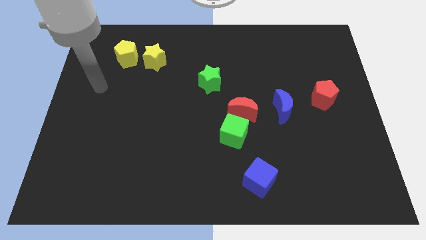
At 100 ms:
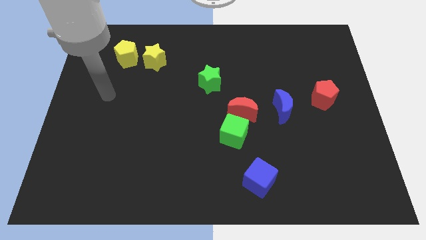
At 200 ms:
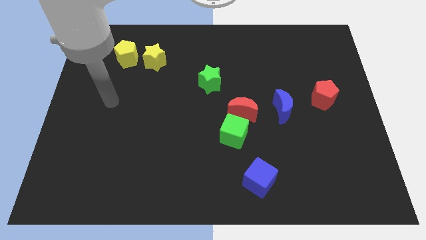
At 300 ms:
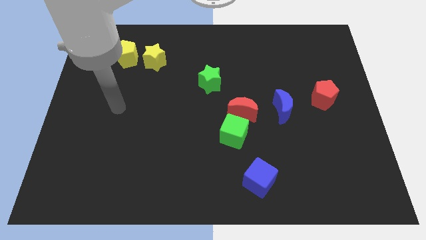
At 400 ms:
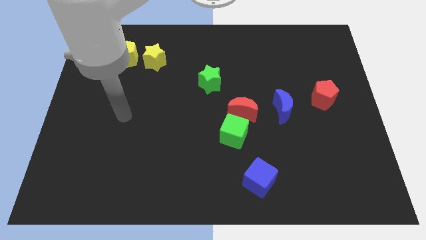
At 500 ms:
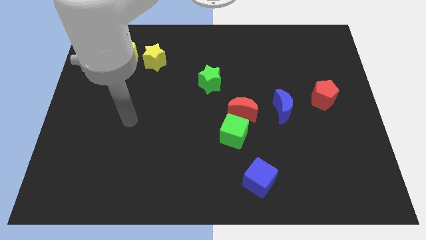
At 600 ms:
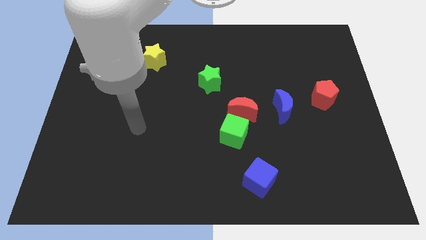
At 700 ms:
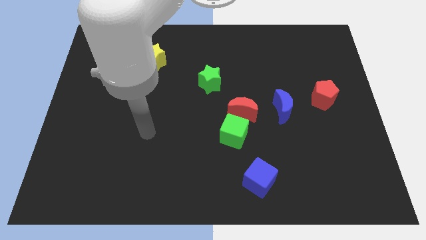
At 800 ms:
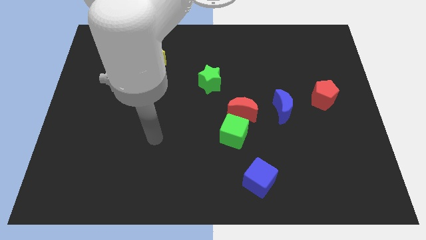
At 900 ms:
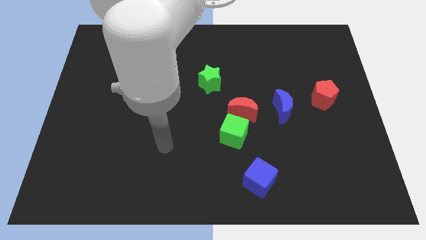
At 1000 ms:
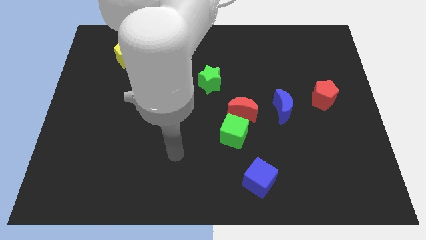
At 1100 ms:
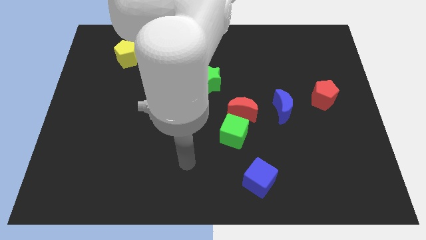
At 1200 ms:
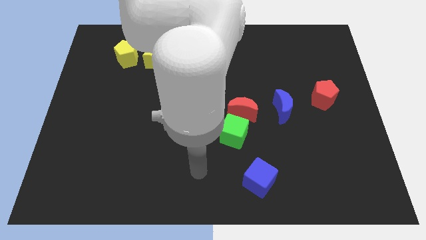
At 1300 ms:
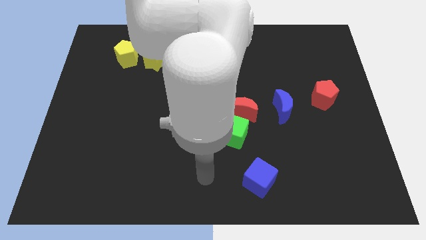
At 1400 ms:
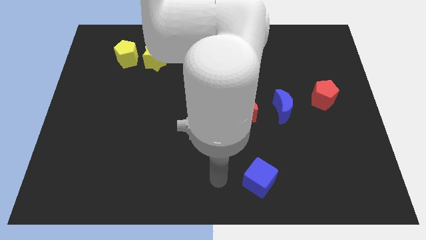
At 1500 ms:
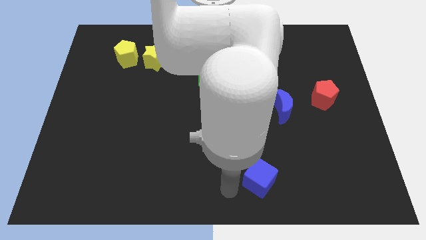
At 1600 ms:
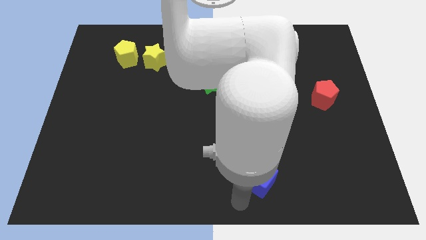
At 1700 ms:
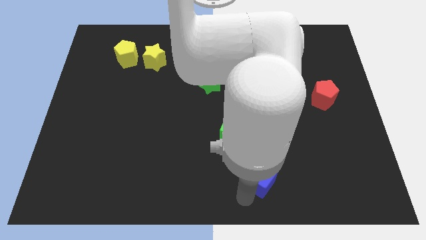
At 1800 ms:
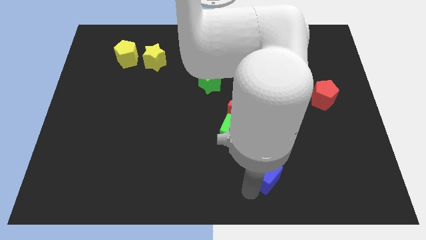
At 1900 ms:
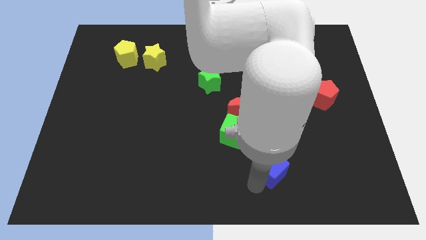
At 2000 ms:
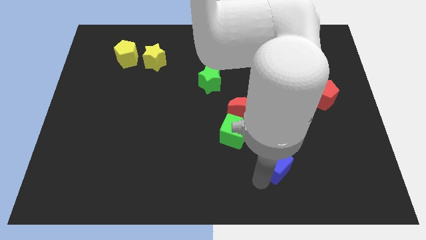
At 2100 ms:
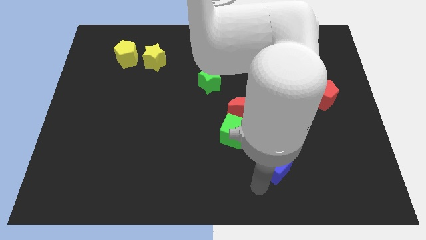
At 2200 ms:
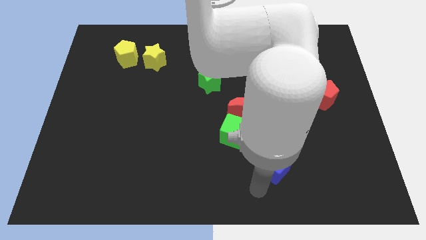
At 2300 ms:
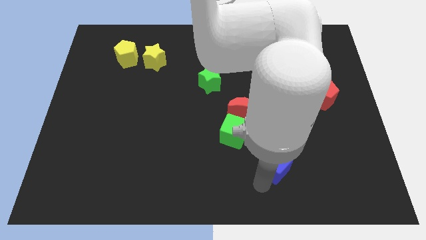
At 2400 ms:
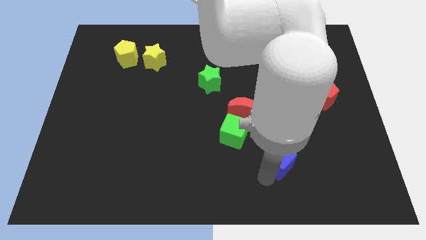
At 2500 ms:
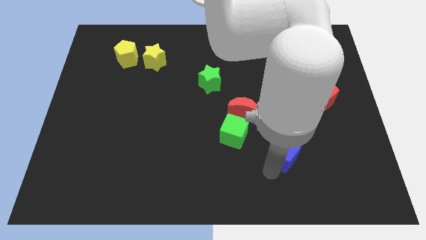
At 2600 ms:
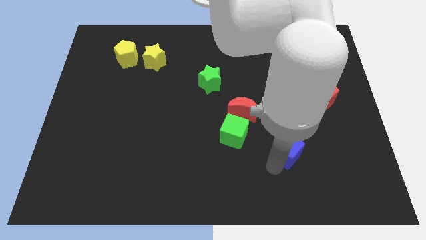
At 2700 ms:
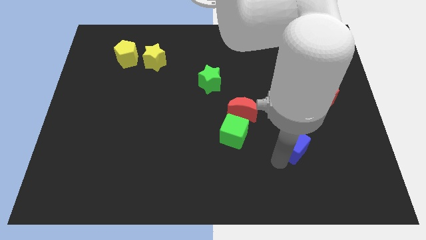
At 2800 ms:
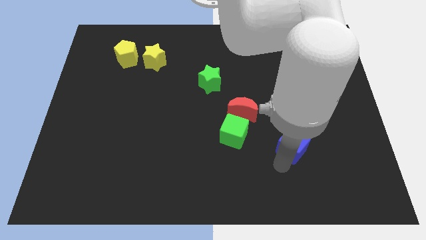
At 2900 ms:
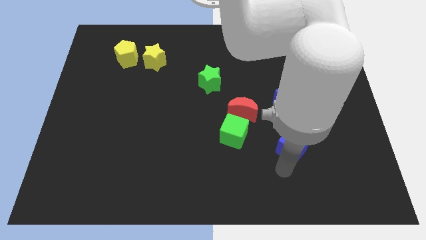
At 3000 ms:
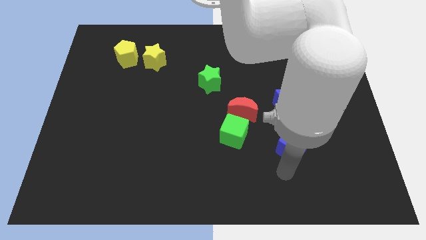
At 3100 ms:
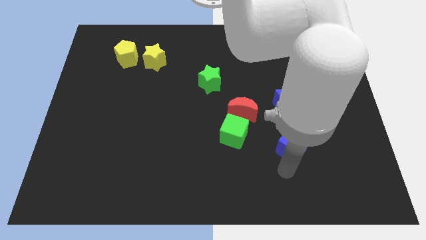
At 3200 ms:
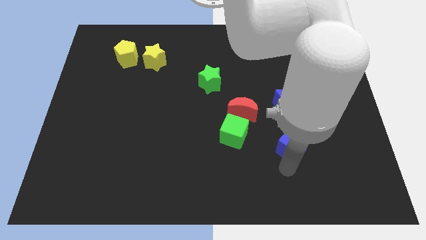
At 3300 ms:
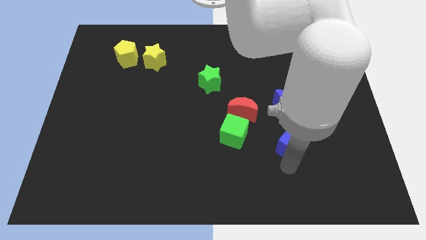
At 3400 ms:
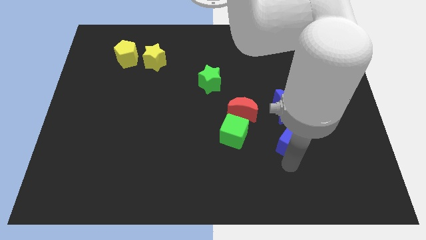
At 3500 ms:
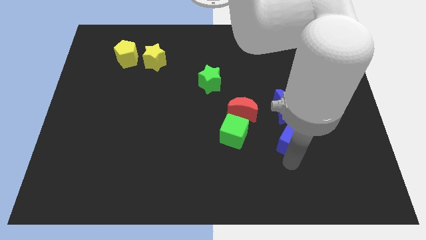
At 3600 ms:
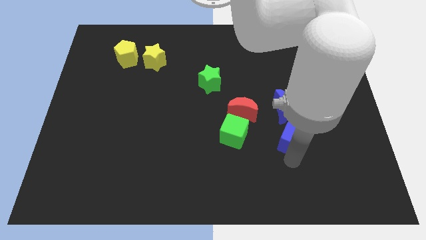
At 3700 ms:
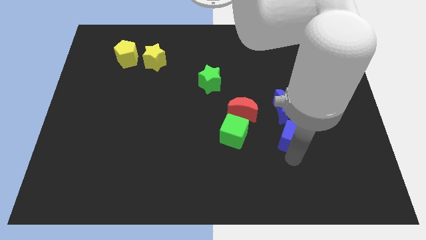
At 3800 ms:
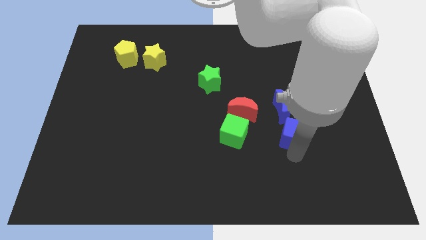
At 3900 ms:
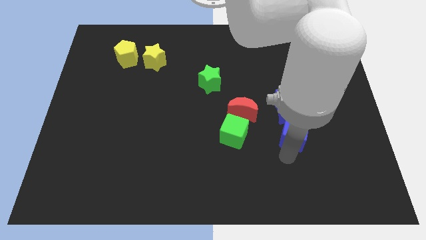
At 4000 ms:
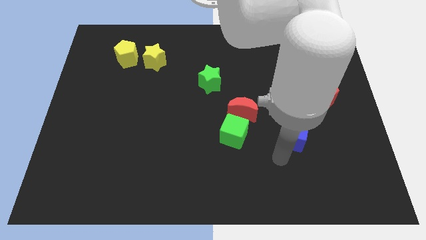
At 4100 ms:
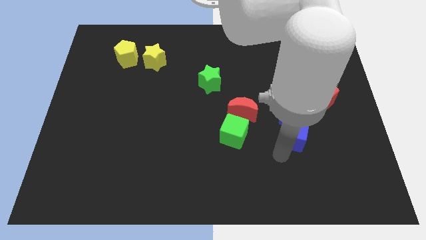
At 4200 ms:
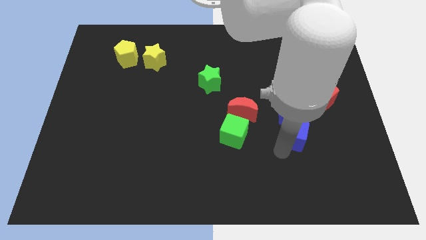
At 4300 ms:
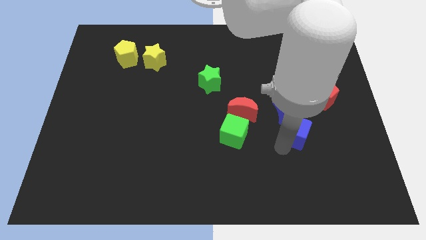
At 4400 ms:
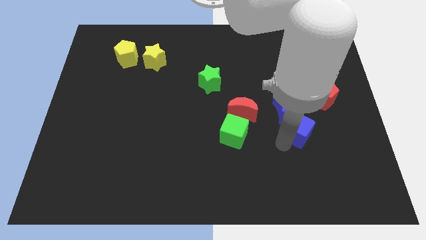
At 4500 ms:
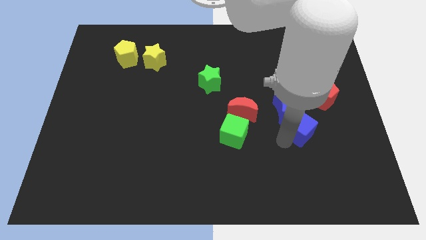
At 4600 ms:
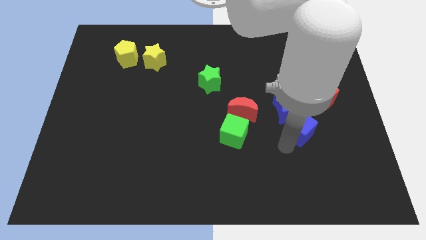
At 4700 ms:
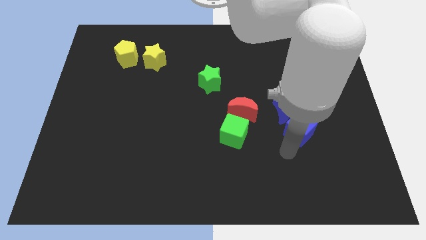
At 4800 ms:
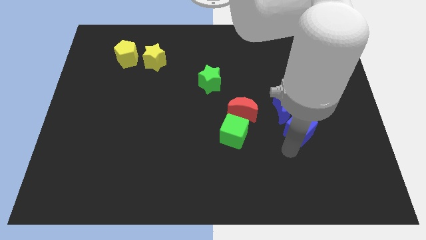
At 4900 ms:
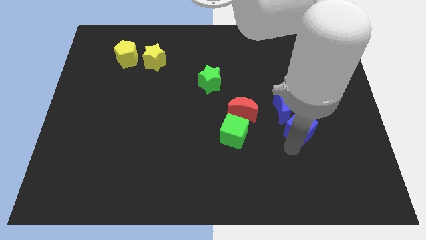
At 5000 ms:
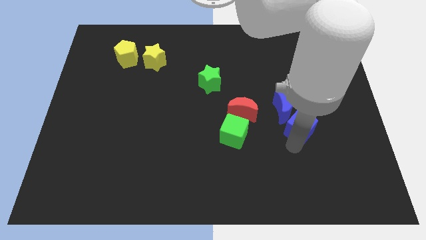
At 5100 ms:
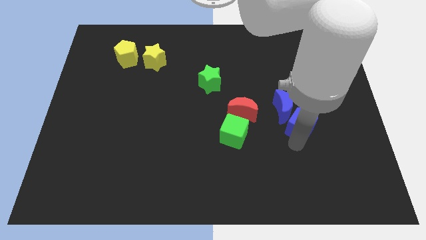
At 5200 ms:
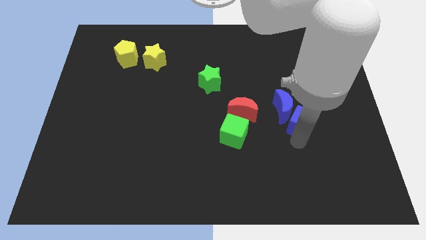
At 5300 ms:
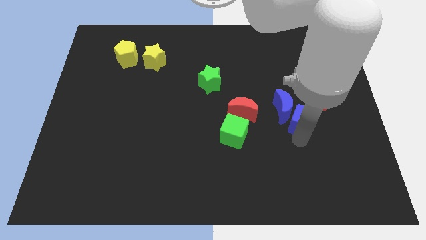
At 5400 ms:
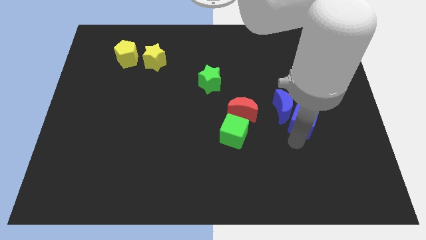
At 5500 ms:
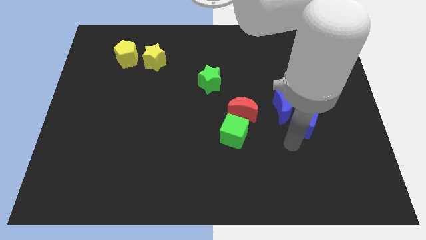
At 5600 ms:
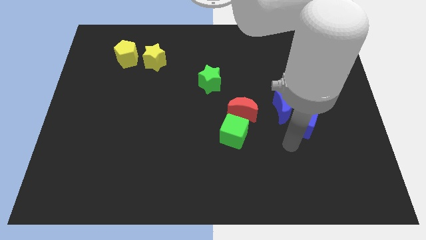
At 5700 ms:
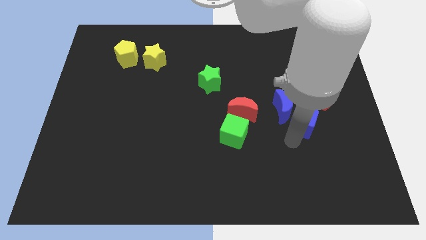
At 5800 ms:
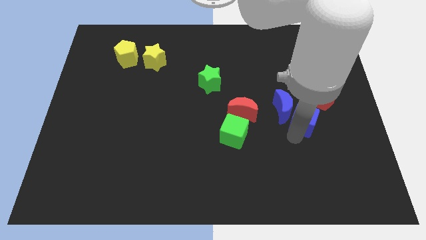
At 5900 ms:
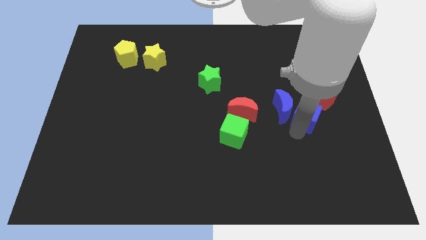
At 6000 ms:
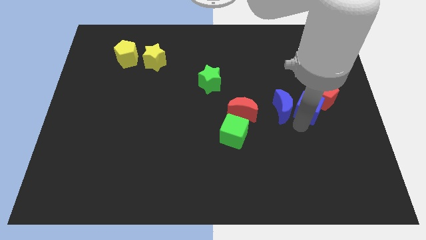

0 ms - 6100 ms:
push the blue cube towards the red pentagon

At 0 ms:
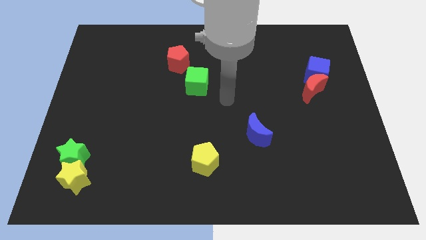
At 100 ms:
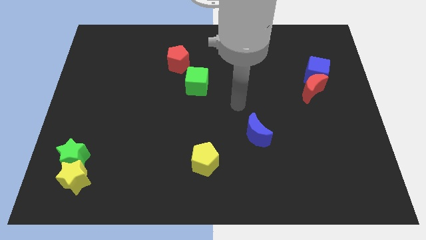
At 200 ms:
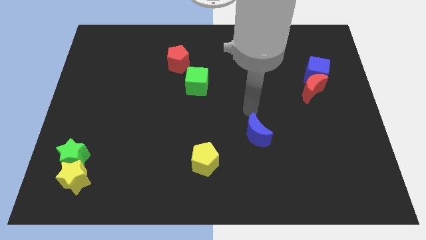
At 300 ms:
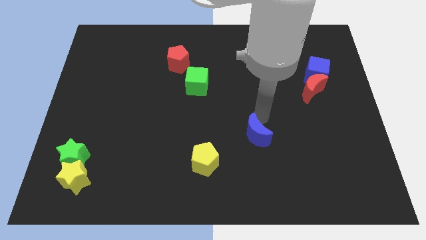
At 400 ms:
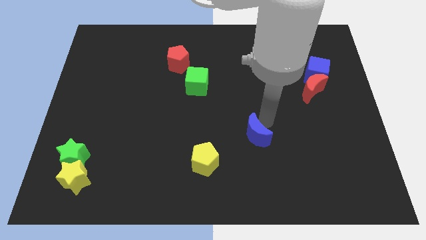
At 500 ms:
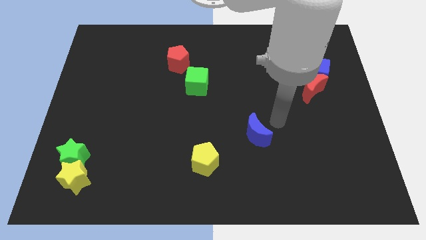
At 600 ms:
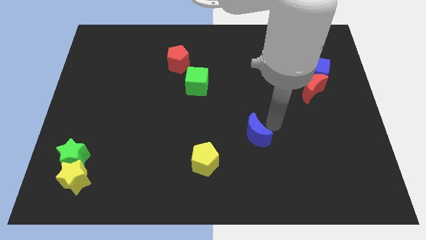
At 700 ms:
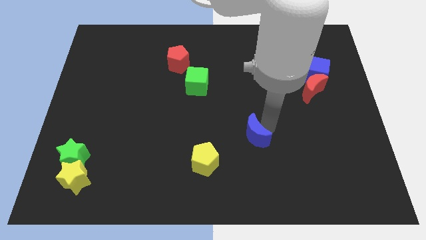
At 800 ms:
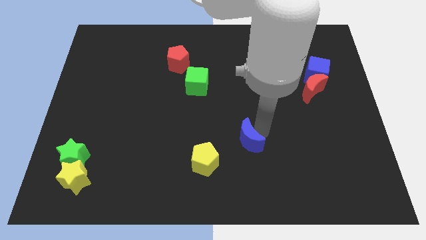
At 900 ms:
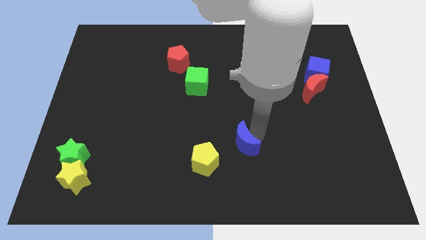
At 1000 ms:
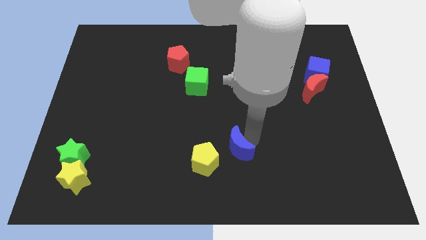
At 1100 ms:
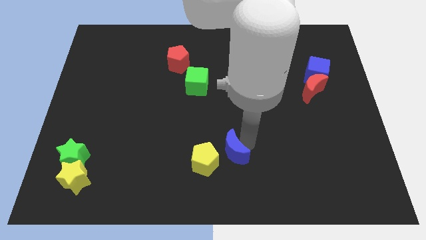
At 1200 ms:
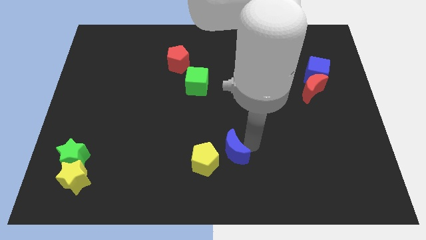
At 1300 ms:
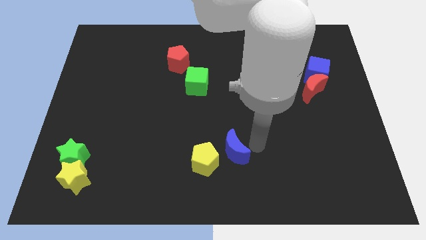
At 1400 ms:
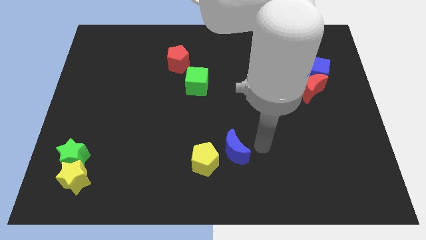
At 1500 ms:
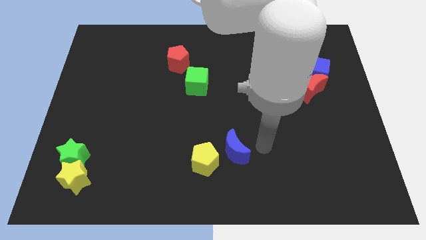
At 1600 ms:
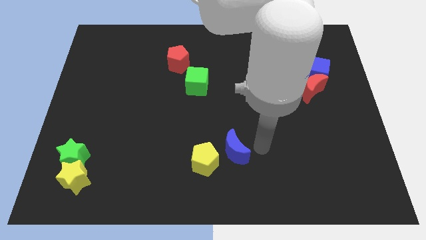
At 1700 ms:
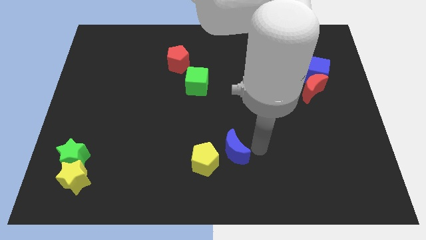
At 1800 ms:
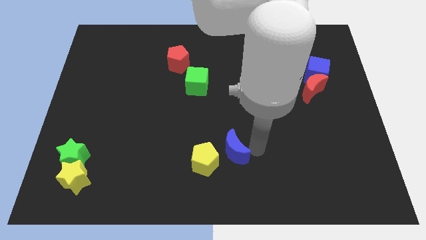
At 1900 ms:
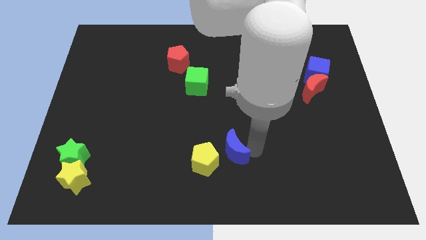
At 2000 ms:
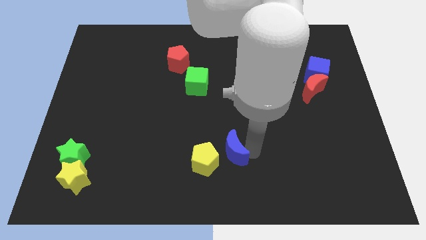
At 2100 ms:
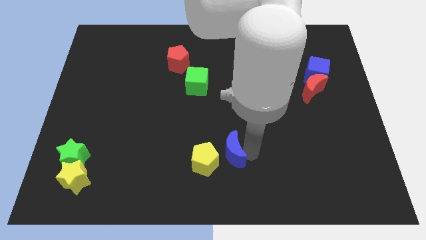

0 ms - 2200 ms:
slide the blue moon close to the yellow pentagon
